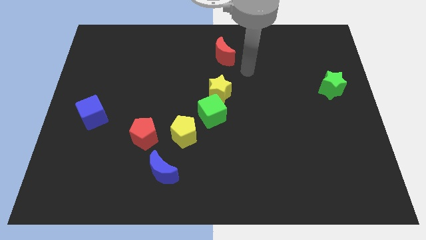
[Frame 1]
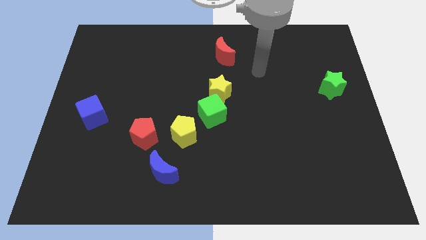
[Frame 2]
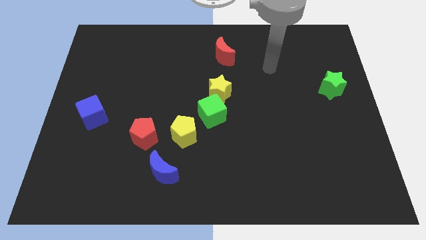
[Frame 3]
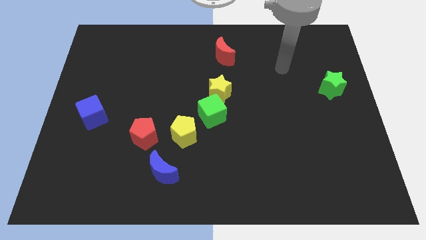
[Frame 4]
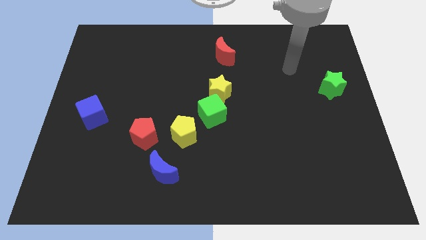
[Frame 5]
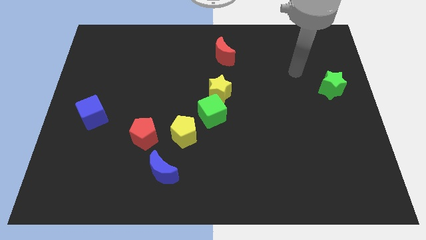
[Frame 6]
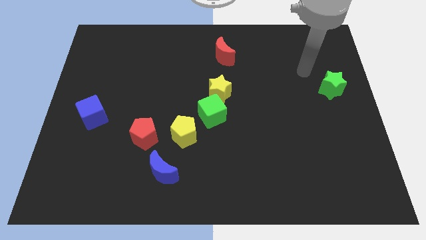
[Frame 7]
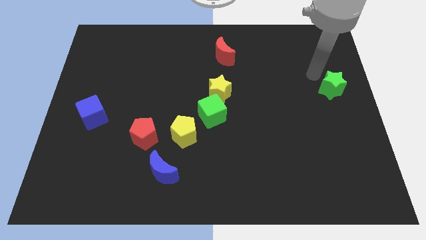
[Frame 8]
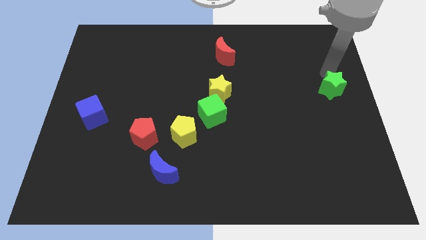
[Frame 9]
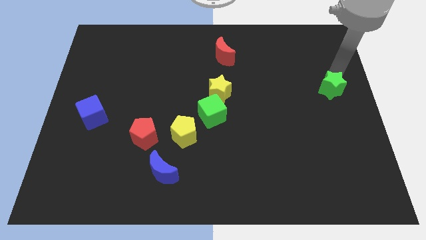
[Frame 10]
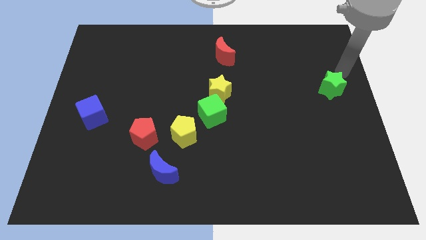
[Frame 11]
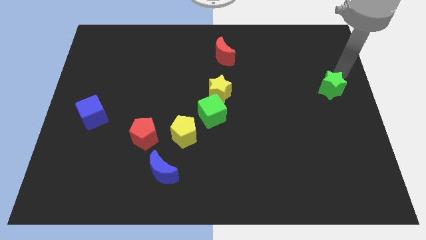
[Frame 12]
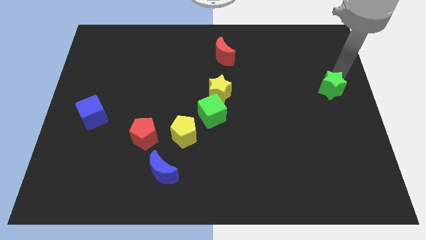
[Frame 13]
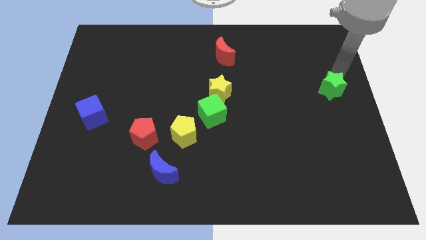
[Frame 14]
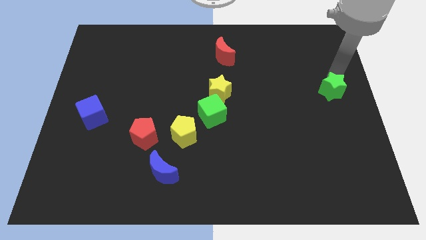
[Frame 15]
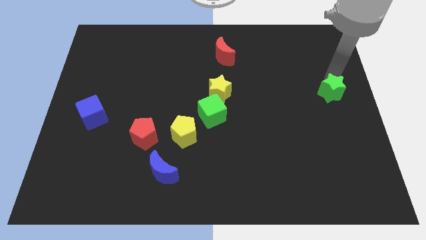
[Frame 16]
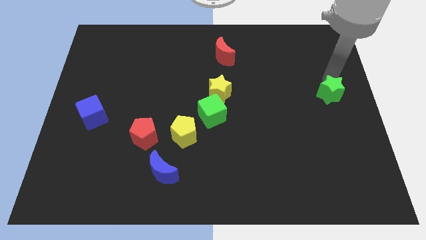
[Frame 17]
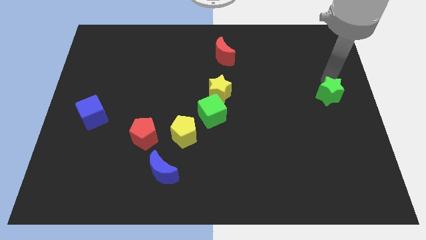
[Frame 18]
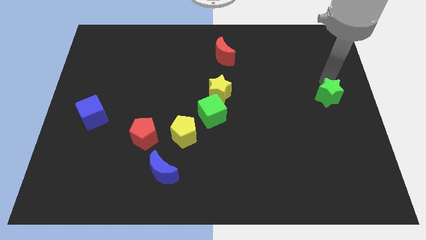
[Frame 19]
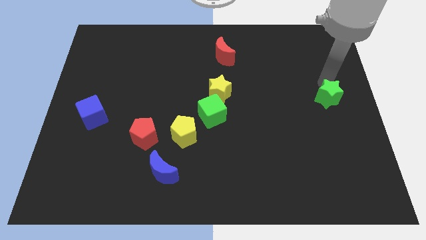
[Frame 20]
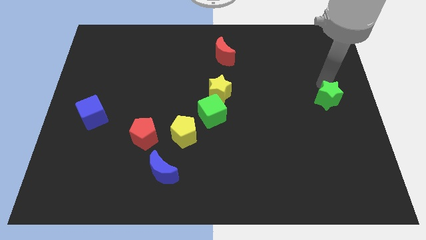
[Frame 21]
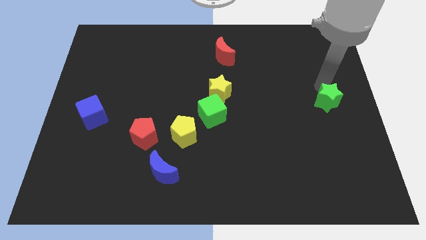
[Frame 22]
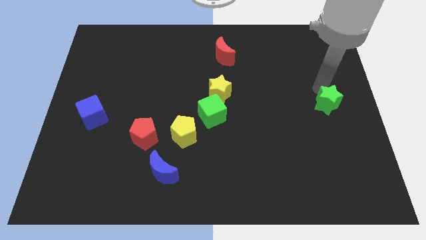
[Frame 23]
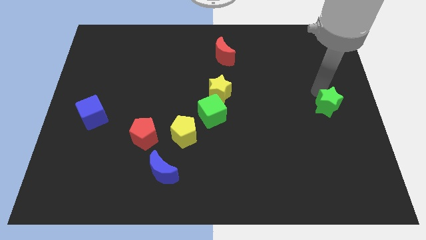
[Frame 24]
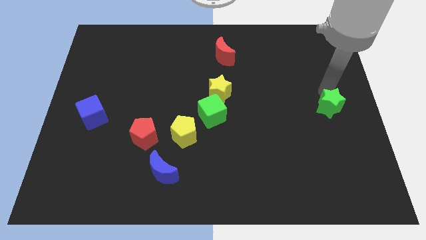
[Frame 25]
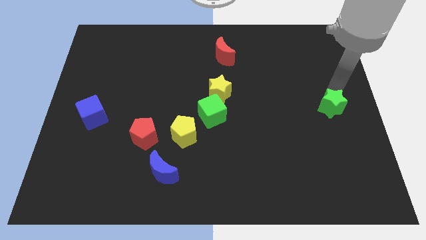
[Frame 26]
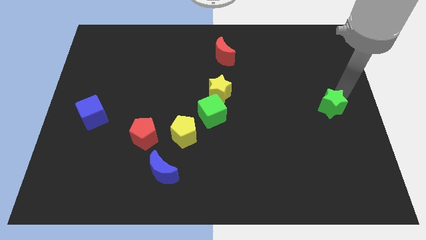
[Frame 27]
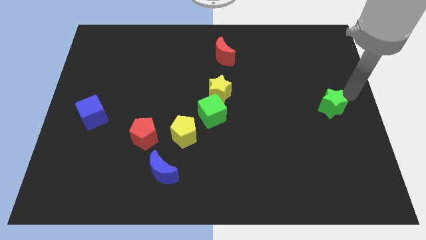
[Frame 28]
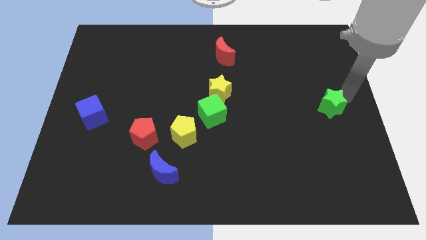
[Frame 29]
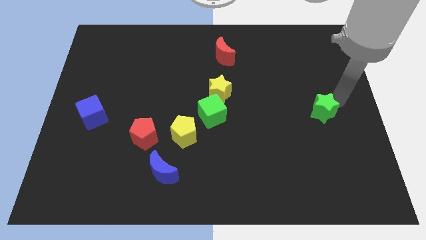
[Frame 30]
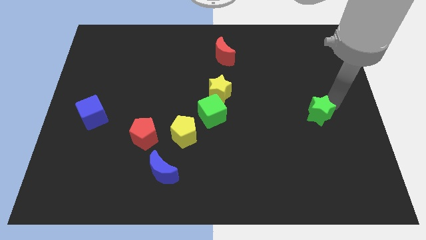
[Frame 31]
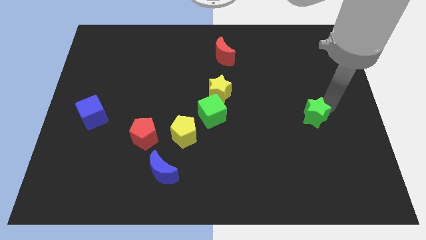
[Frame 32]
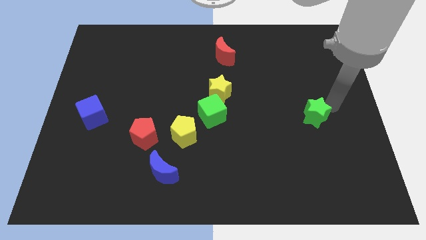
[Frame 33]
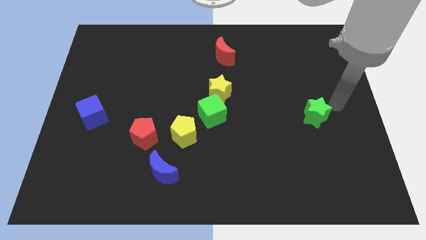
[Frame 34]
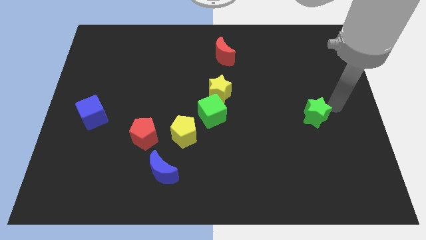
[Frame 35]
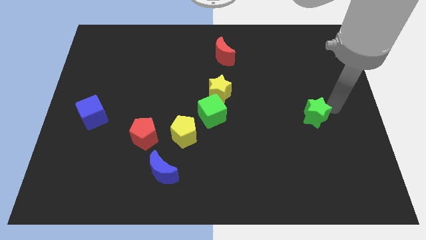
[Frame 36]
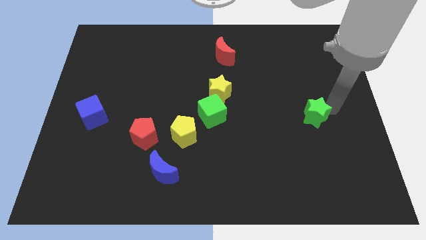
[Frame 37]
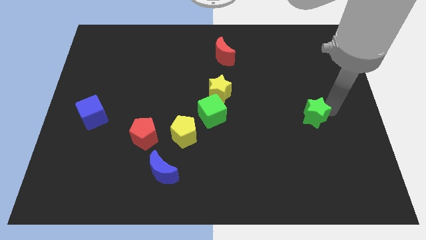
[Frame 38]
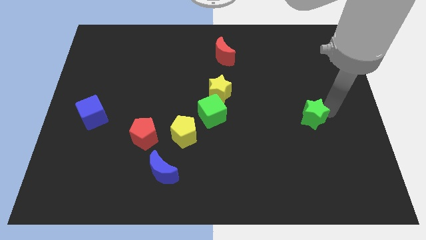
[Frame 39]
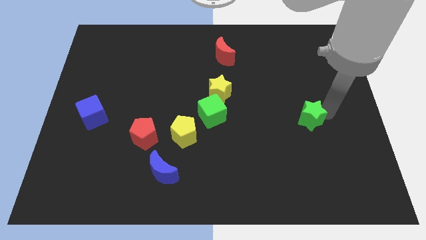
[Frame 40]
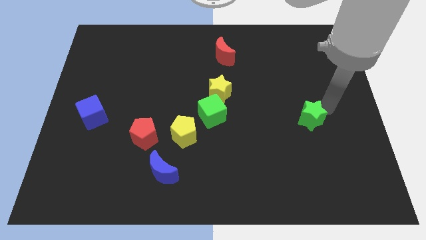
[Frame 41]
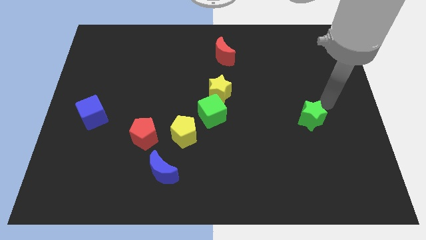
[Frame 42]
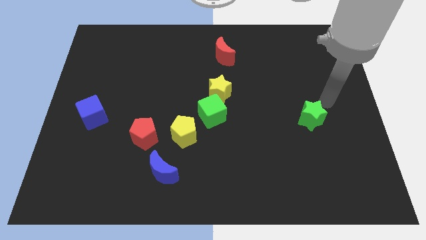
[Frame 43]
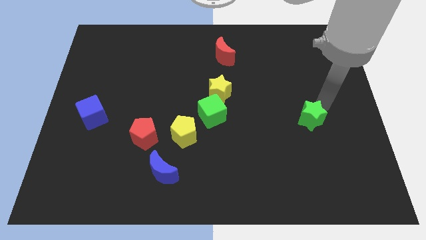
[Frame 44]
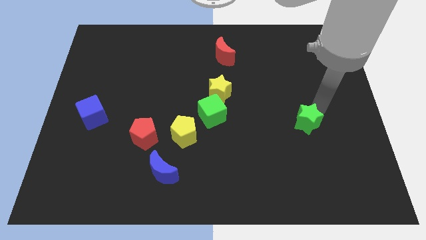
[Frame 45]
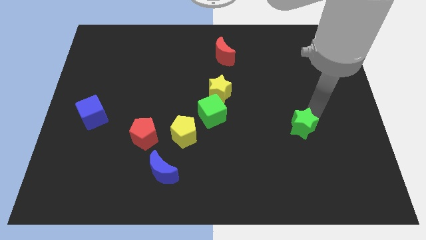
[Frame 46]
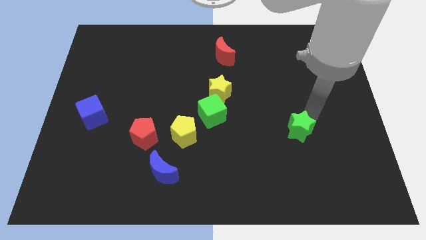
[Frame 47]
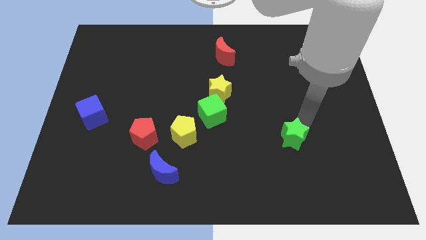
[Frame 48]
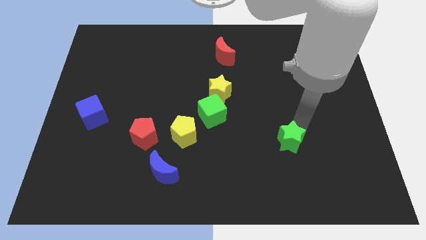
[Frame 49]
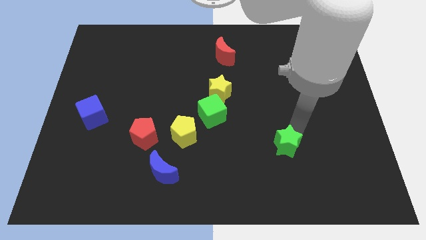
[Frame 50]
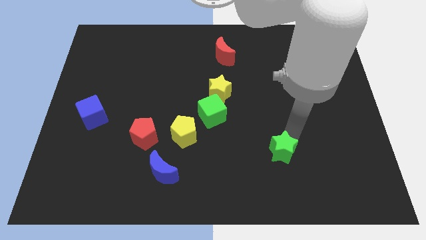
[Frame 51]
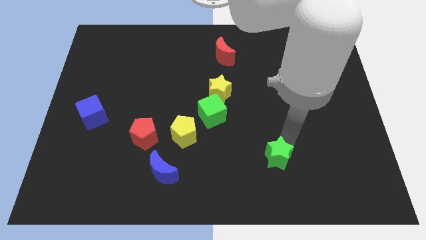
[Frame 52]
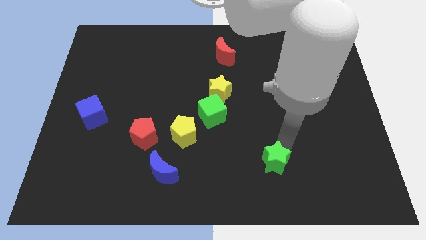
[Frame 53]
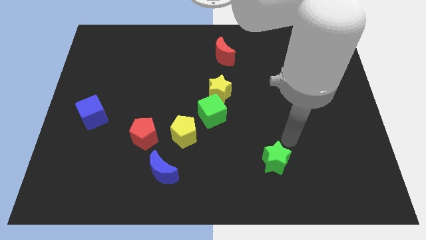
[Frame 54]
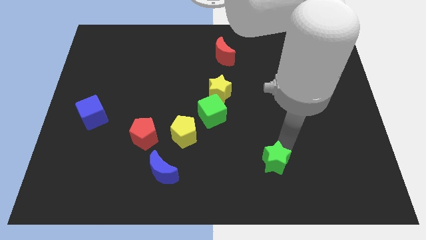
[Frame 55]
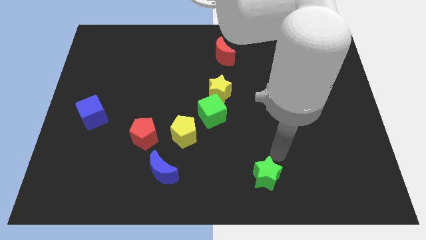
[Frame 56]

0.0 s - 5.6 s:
push the green star to the bottom side
